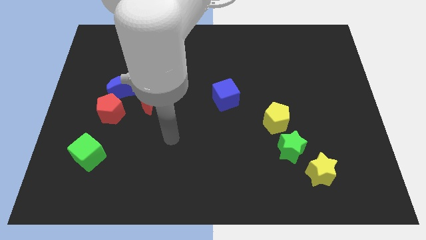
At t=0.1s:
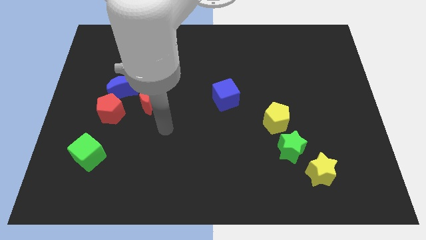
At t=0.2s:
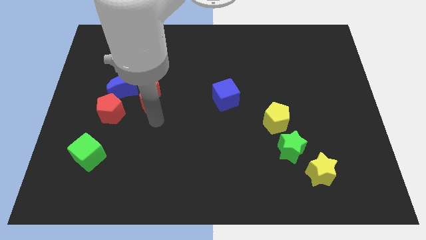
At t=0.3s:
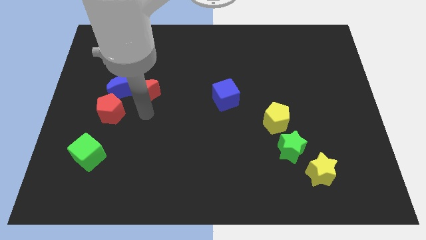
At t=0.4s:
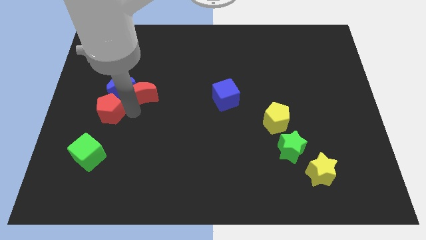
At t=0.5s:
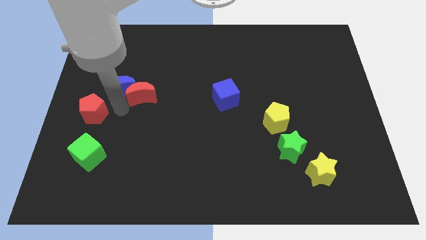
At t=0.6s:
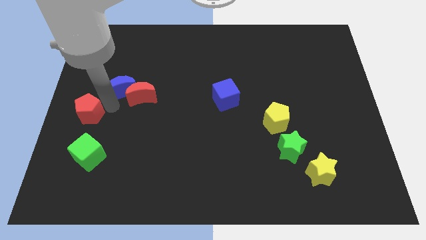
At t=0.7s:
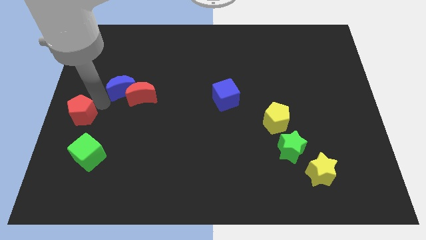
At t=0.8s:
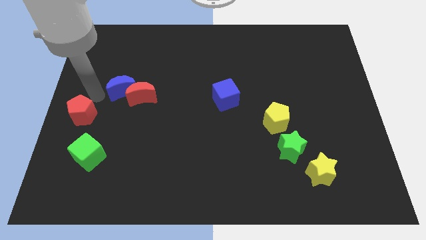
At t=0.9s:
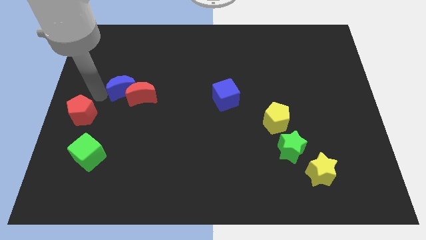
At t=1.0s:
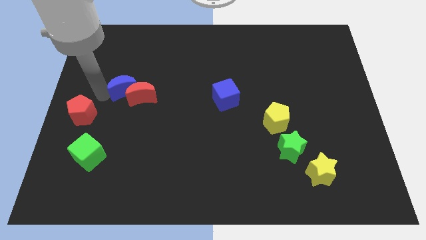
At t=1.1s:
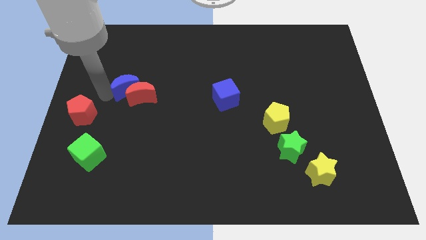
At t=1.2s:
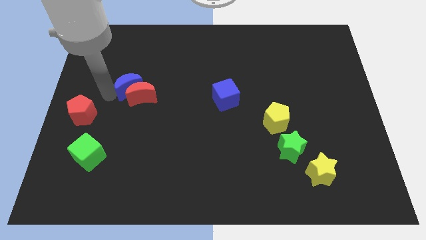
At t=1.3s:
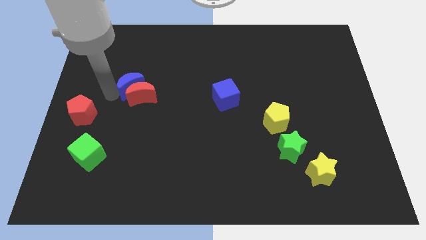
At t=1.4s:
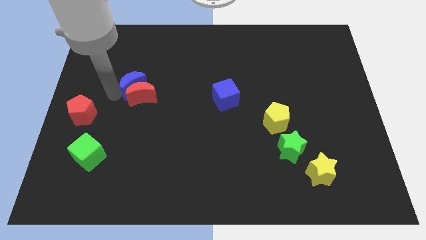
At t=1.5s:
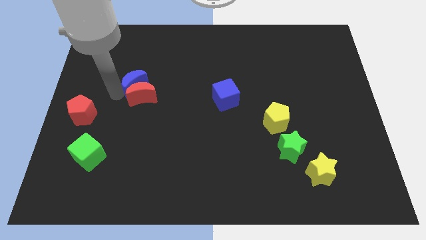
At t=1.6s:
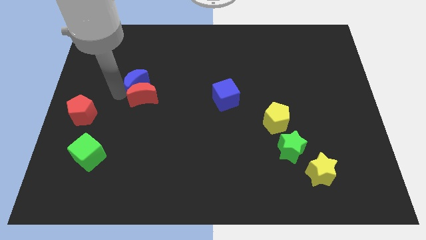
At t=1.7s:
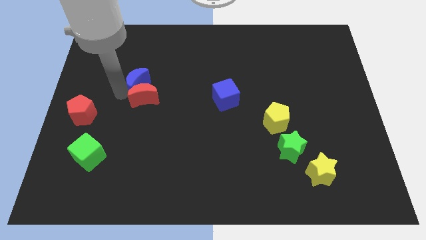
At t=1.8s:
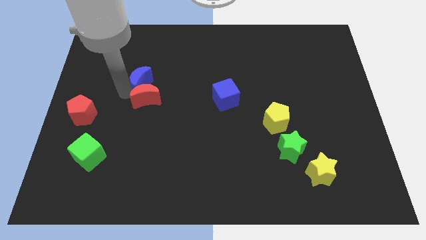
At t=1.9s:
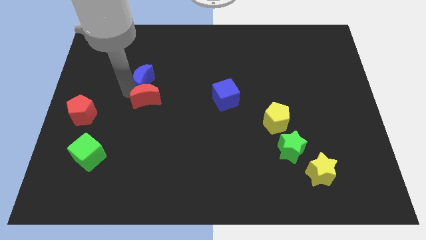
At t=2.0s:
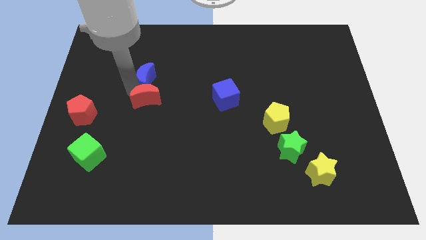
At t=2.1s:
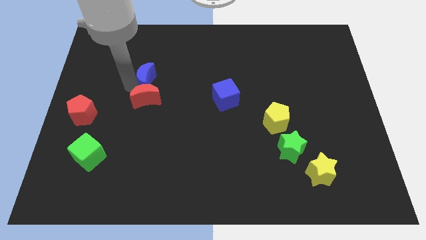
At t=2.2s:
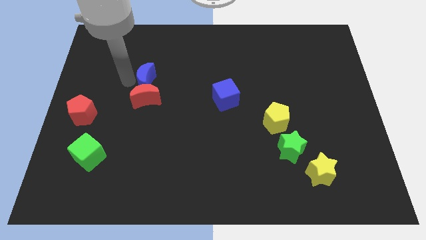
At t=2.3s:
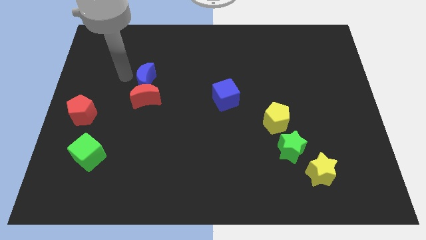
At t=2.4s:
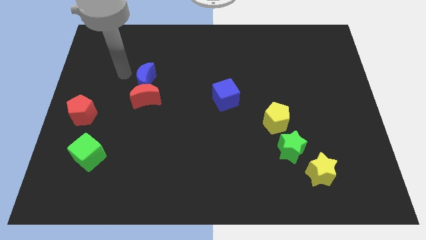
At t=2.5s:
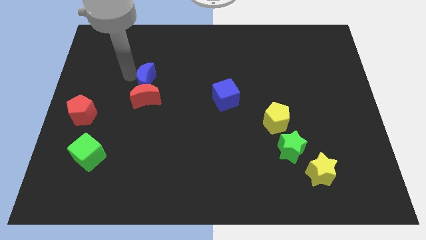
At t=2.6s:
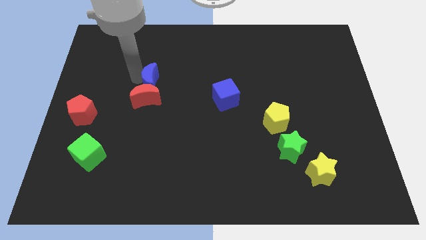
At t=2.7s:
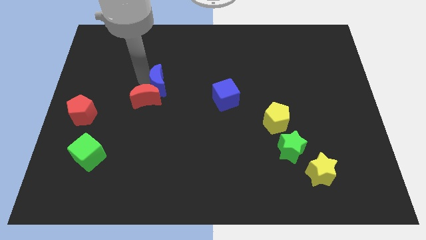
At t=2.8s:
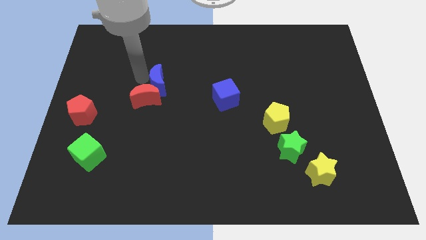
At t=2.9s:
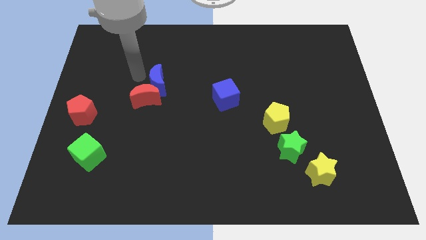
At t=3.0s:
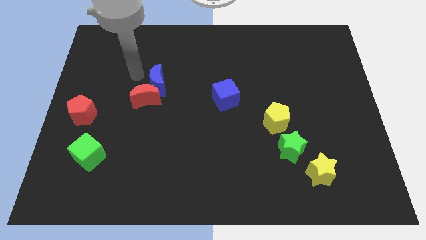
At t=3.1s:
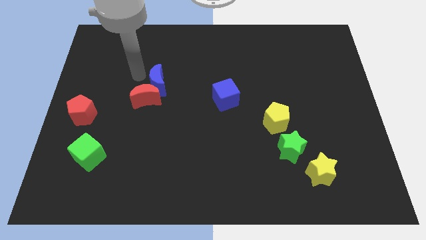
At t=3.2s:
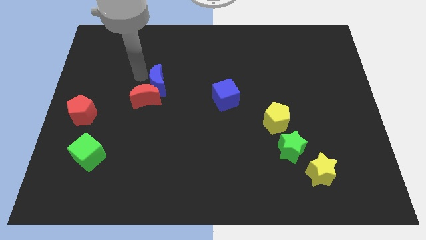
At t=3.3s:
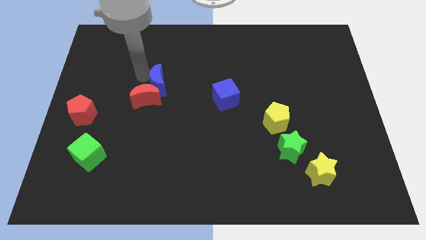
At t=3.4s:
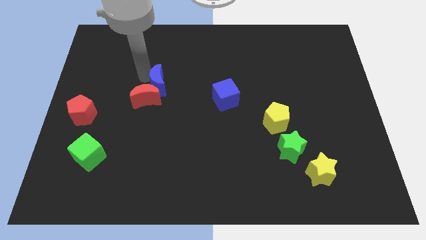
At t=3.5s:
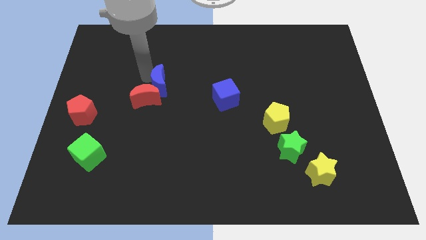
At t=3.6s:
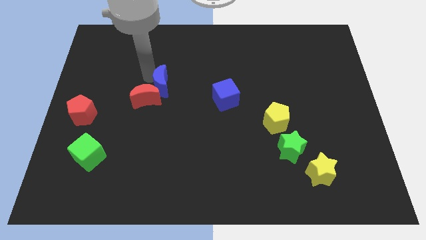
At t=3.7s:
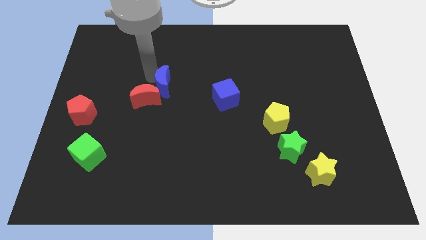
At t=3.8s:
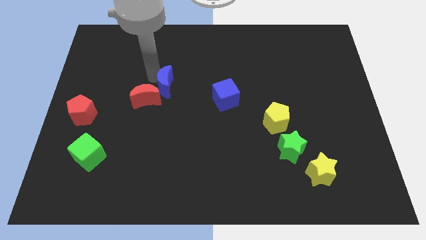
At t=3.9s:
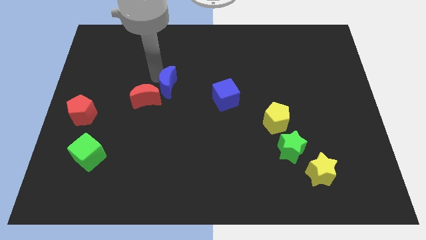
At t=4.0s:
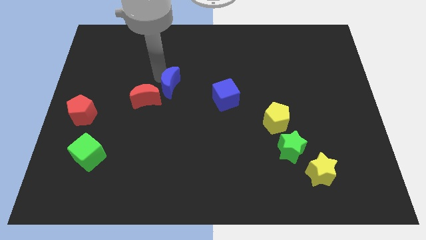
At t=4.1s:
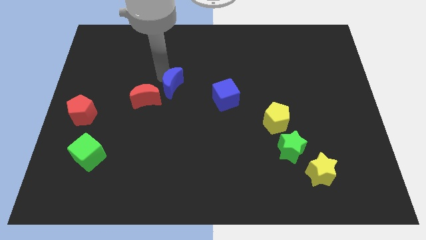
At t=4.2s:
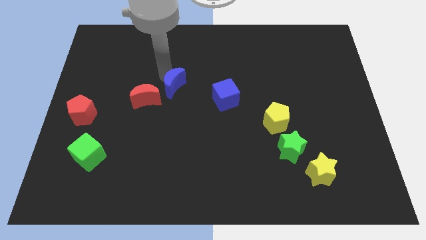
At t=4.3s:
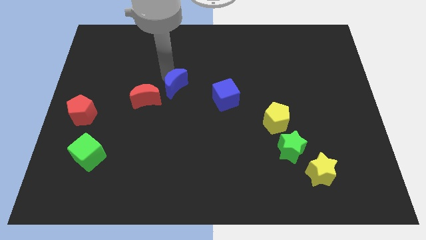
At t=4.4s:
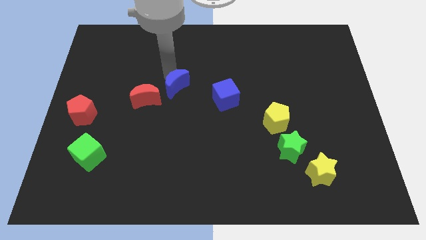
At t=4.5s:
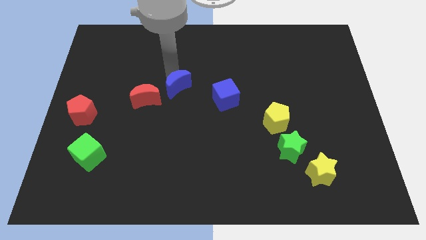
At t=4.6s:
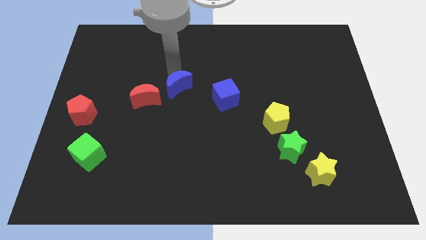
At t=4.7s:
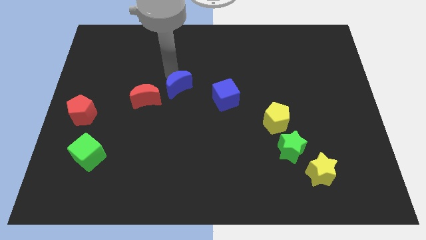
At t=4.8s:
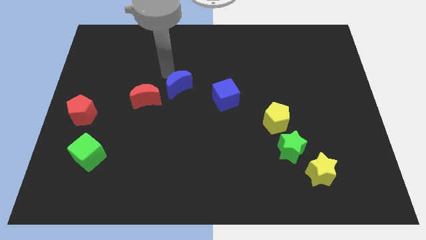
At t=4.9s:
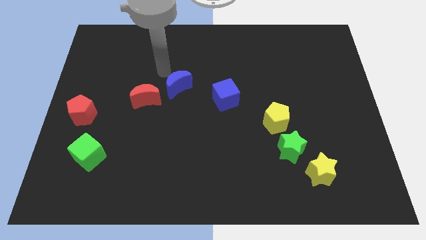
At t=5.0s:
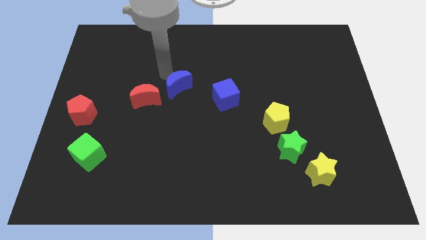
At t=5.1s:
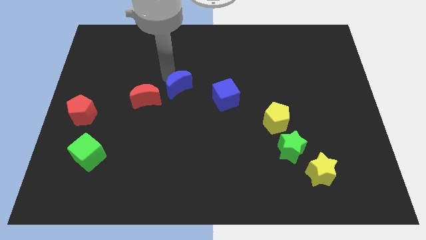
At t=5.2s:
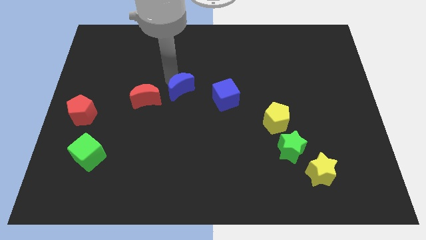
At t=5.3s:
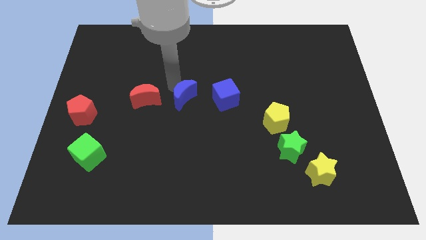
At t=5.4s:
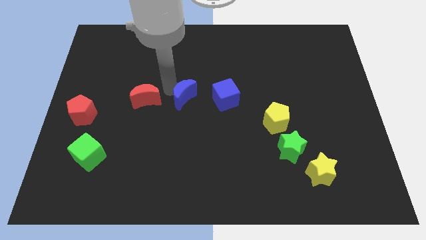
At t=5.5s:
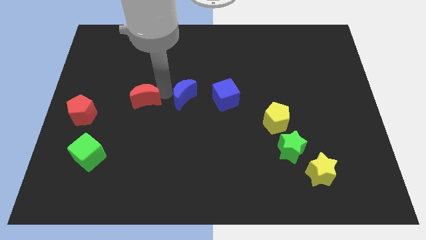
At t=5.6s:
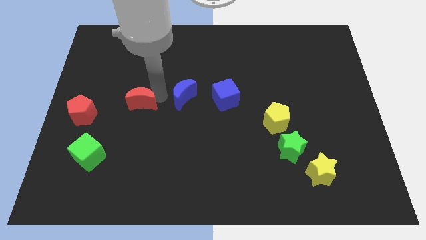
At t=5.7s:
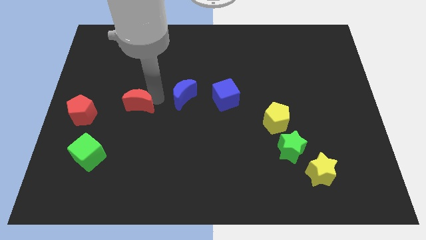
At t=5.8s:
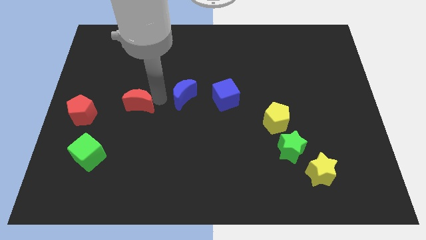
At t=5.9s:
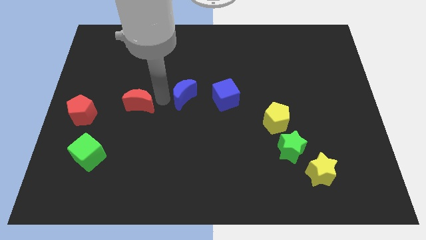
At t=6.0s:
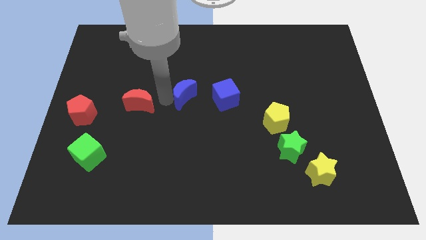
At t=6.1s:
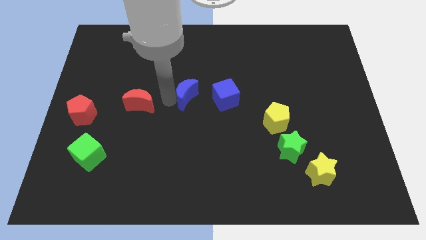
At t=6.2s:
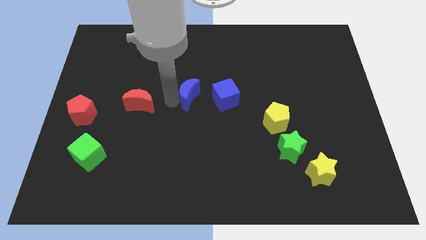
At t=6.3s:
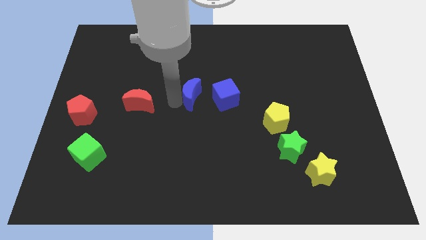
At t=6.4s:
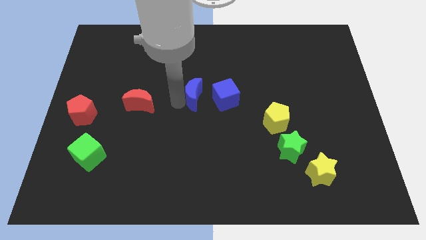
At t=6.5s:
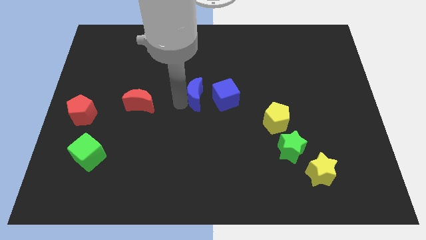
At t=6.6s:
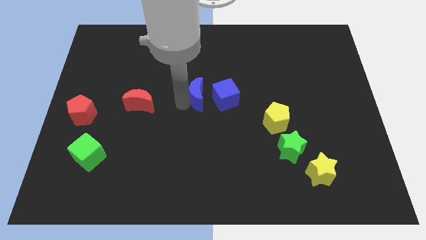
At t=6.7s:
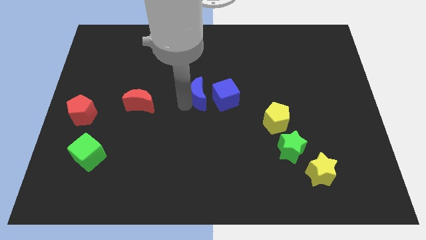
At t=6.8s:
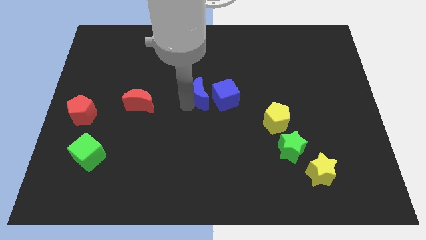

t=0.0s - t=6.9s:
move the blue moon towards the blue cube

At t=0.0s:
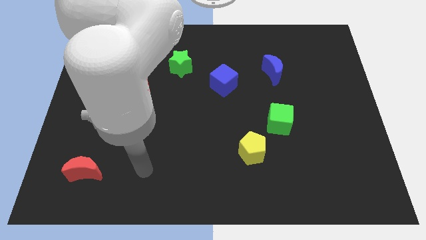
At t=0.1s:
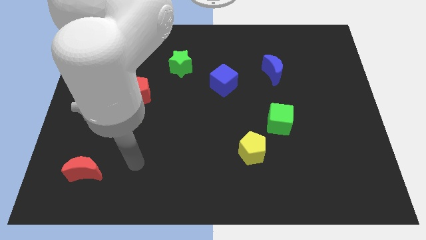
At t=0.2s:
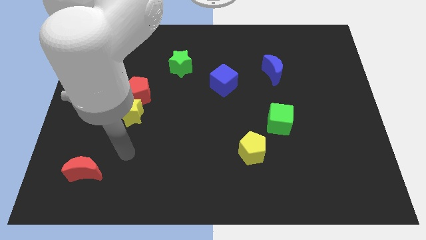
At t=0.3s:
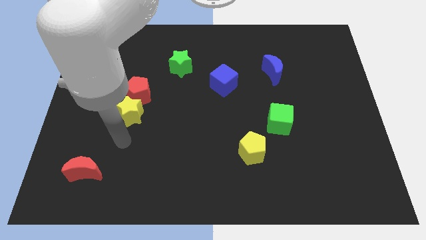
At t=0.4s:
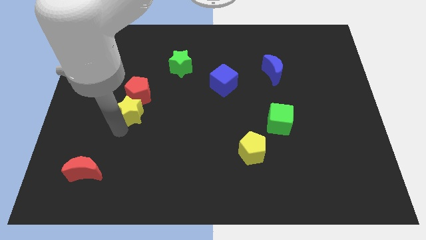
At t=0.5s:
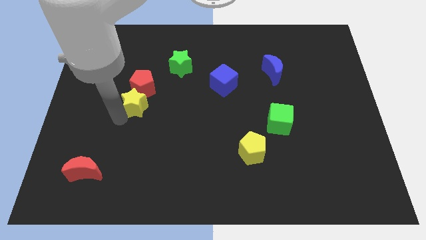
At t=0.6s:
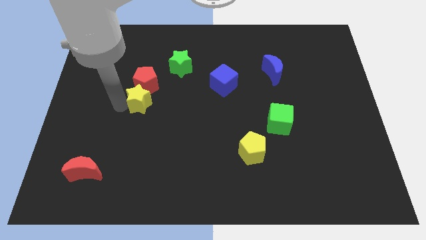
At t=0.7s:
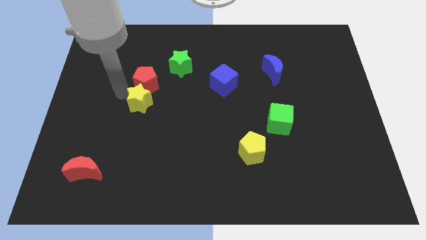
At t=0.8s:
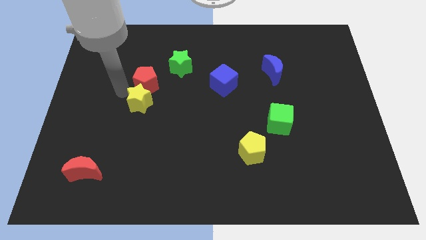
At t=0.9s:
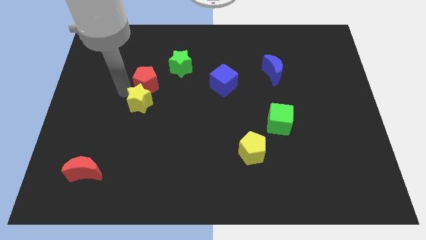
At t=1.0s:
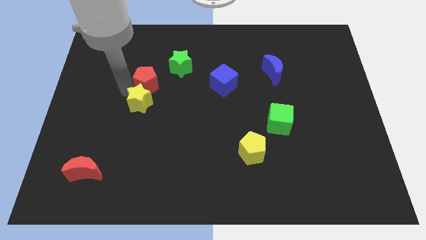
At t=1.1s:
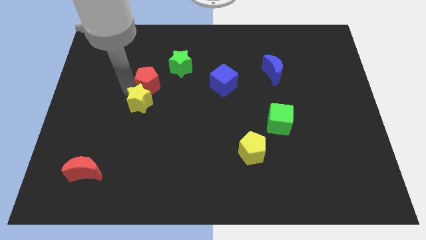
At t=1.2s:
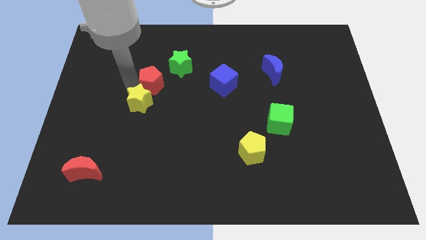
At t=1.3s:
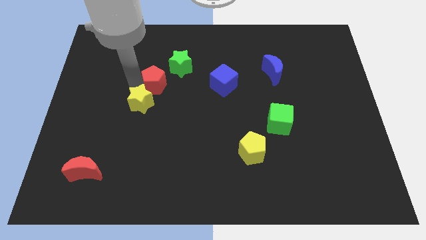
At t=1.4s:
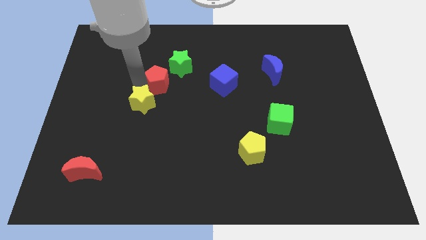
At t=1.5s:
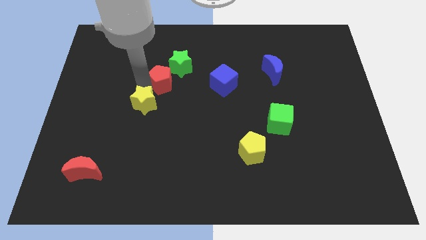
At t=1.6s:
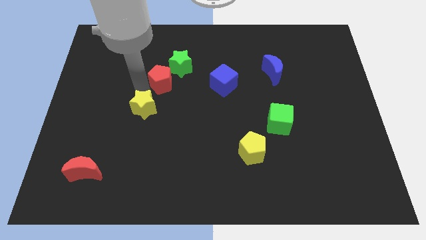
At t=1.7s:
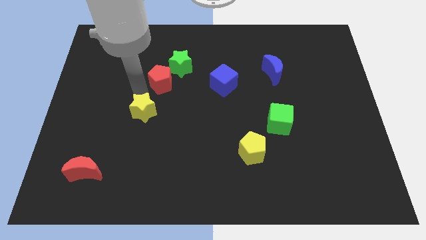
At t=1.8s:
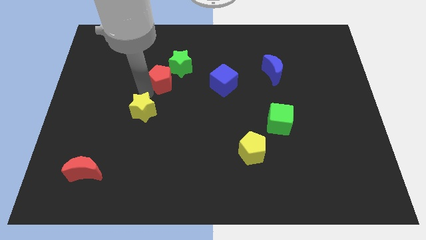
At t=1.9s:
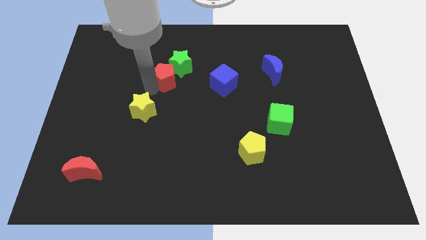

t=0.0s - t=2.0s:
push the red pentagon towards the green star
